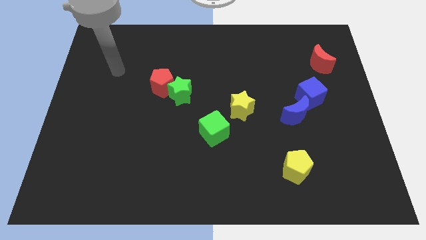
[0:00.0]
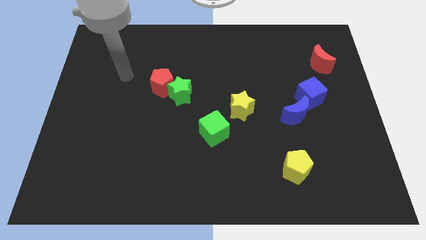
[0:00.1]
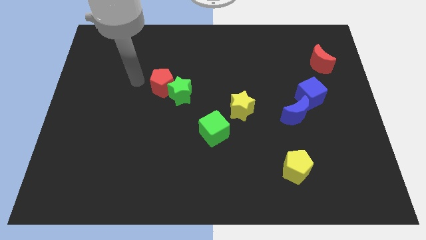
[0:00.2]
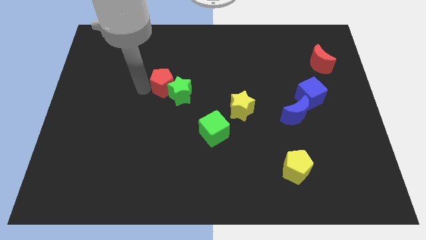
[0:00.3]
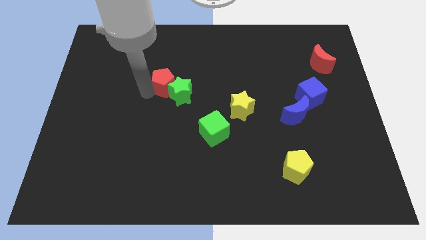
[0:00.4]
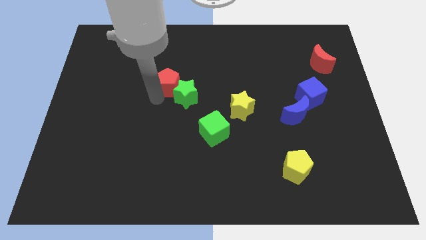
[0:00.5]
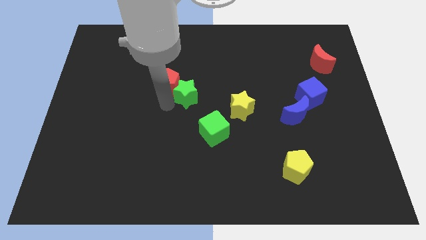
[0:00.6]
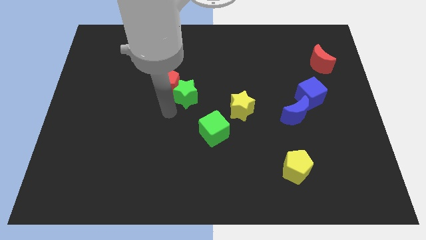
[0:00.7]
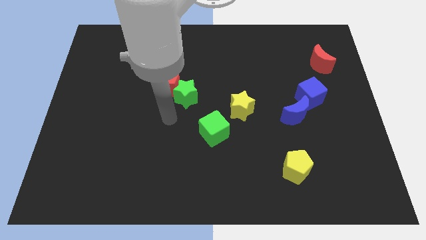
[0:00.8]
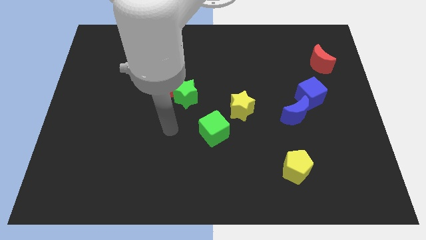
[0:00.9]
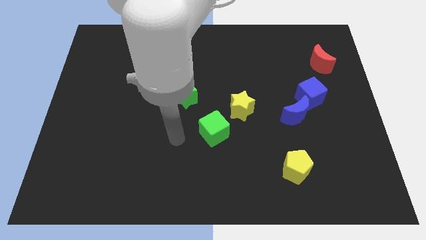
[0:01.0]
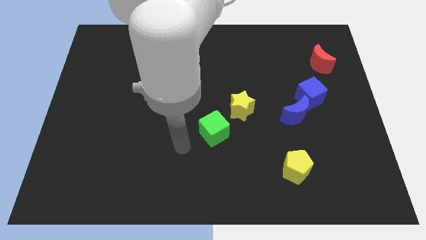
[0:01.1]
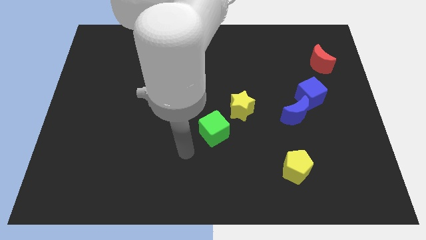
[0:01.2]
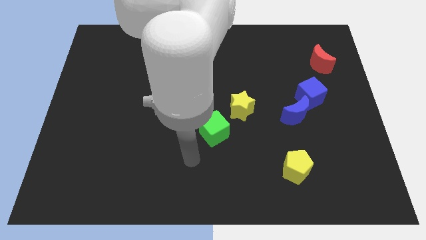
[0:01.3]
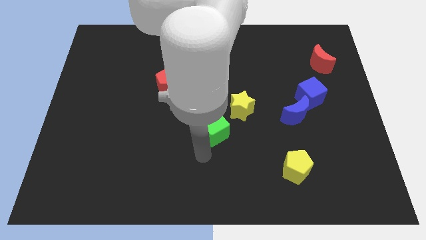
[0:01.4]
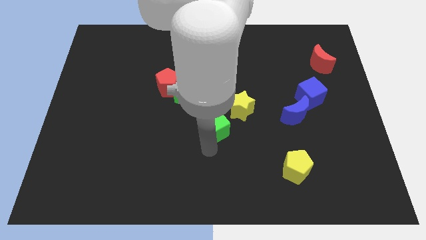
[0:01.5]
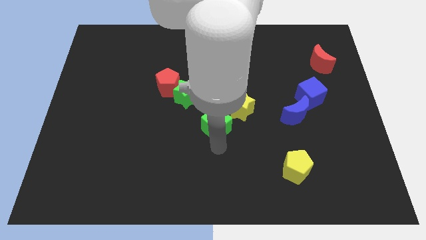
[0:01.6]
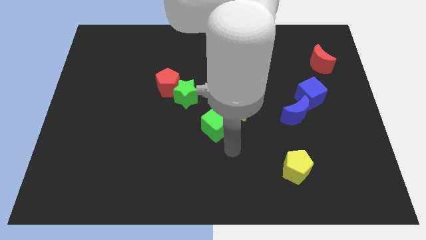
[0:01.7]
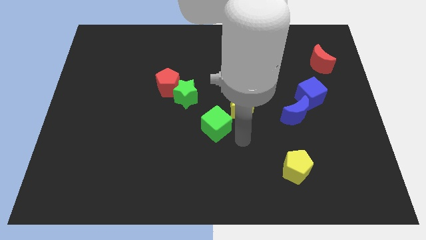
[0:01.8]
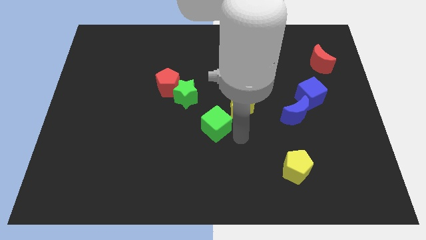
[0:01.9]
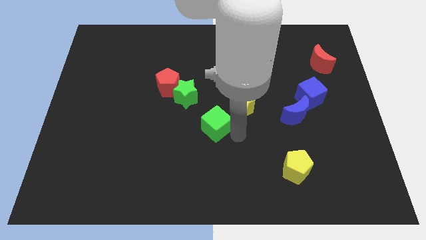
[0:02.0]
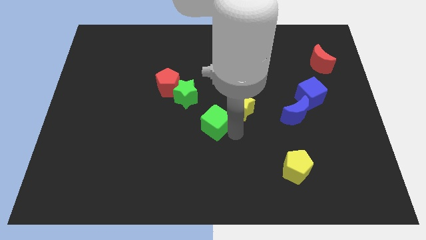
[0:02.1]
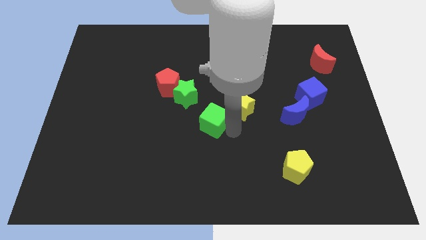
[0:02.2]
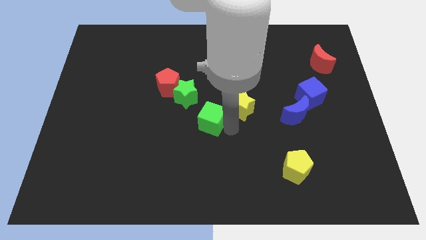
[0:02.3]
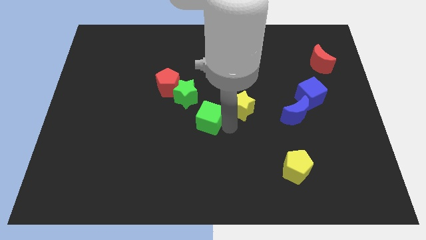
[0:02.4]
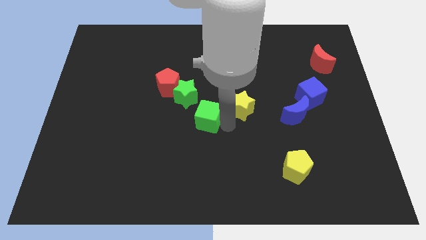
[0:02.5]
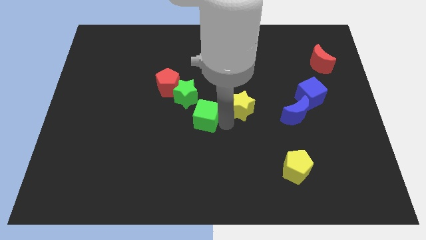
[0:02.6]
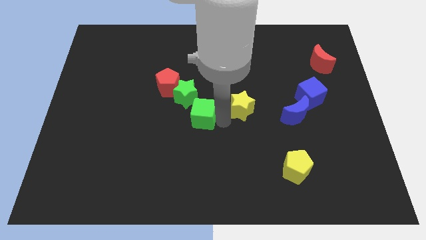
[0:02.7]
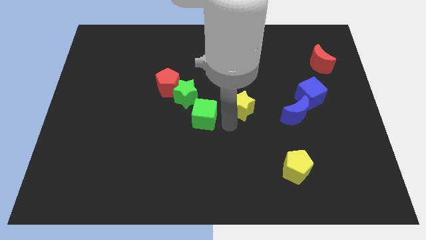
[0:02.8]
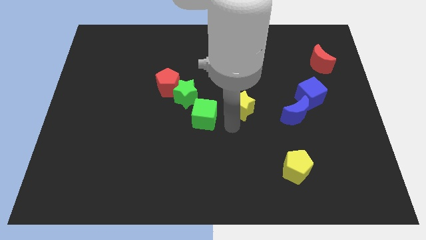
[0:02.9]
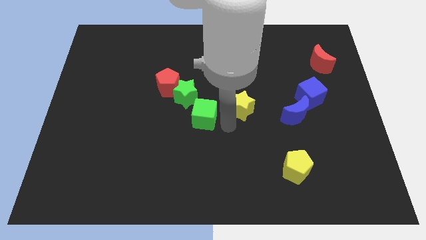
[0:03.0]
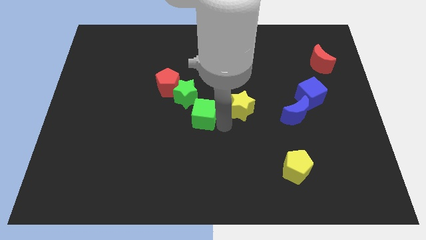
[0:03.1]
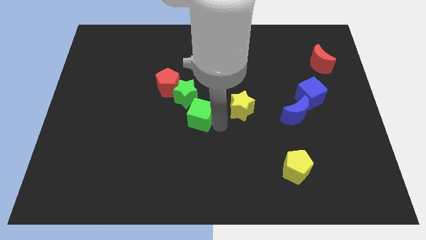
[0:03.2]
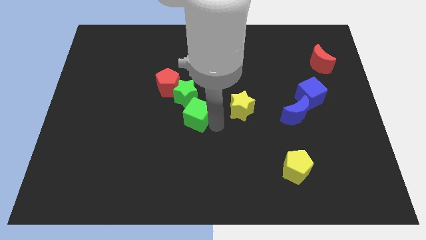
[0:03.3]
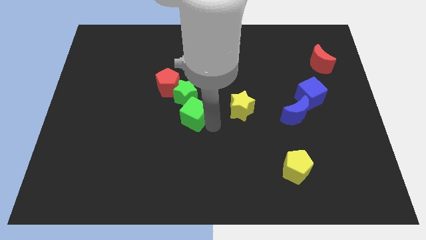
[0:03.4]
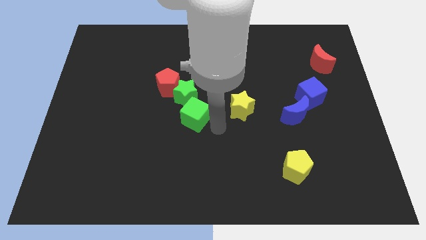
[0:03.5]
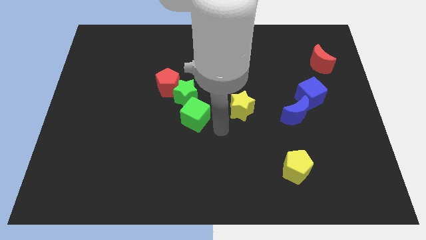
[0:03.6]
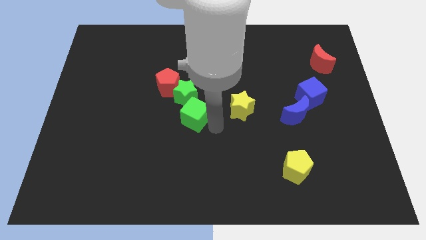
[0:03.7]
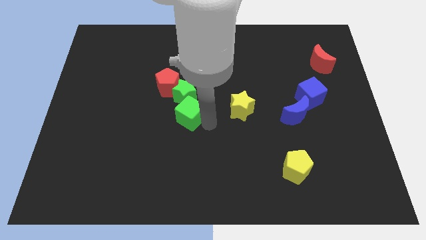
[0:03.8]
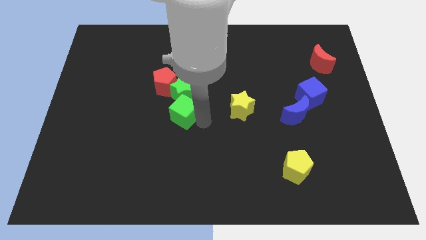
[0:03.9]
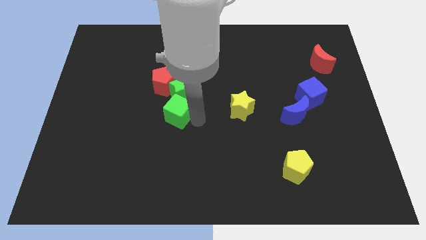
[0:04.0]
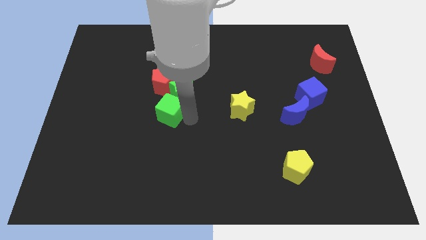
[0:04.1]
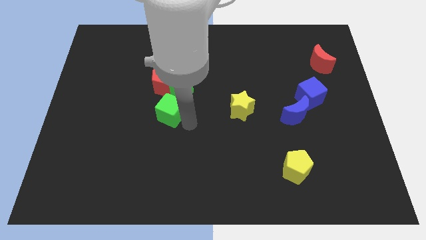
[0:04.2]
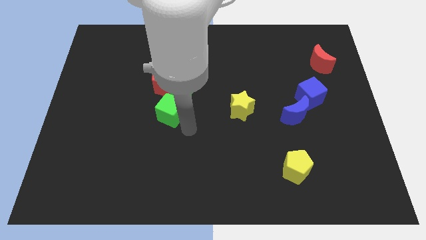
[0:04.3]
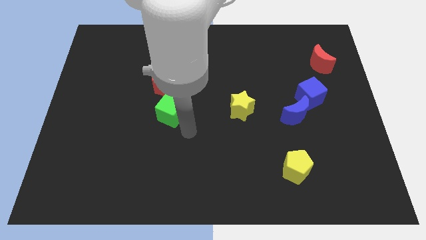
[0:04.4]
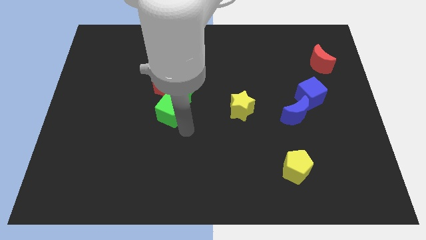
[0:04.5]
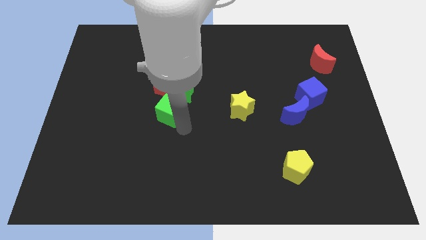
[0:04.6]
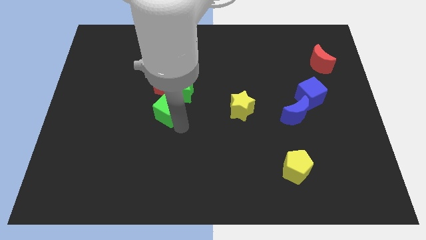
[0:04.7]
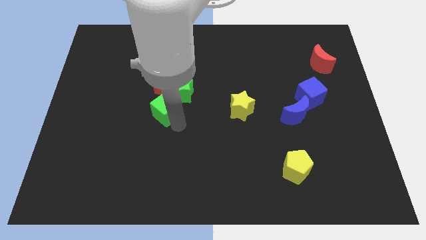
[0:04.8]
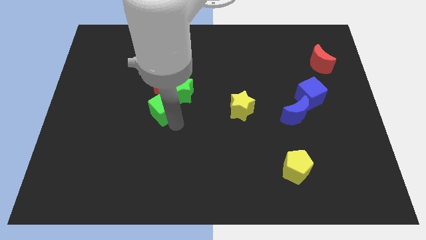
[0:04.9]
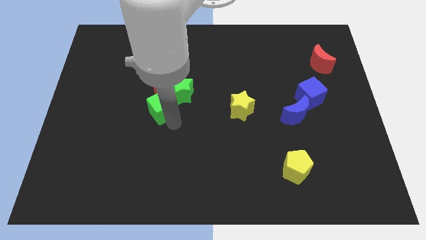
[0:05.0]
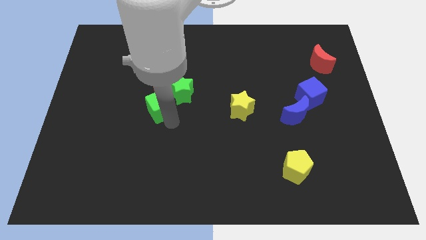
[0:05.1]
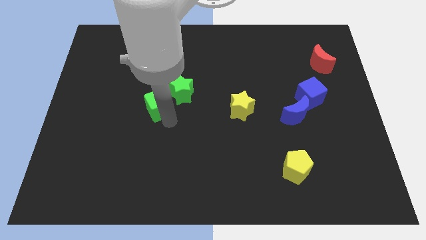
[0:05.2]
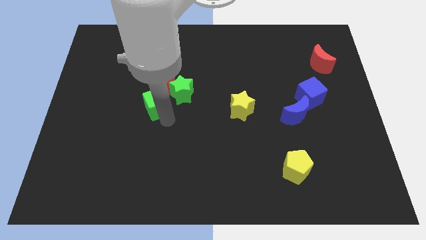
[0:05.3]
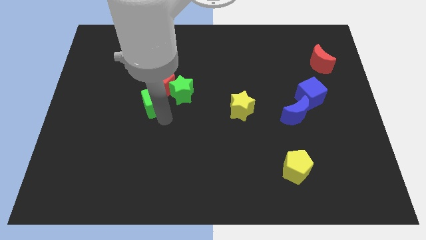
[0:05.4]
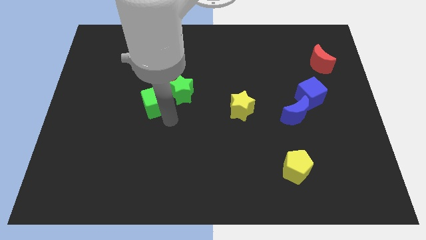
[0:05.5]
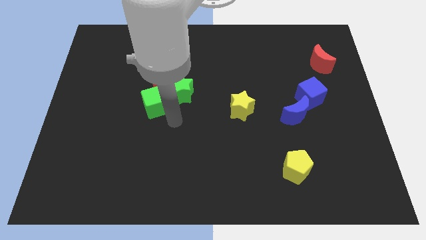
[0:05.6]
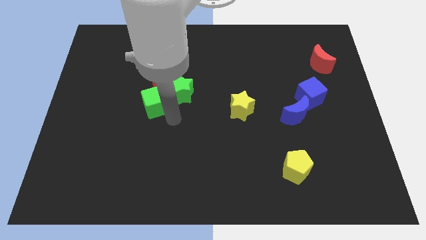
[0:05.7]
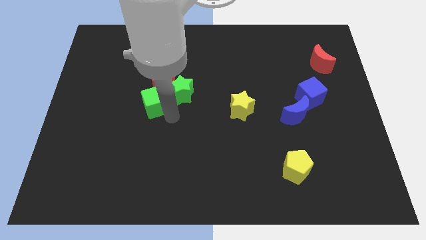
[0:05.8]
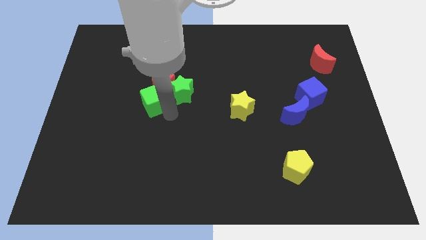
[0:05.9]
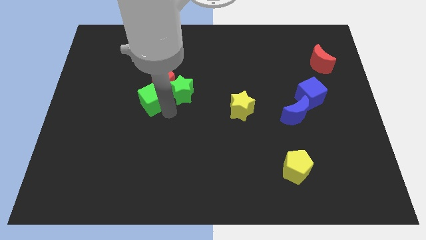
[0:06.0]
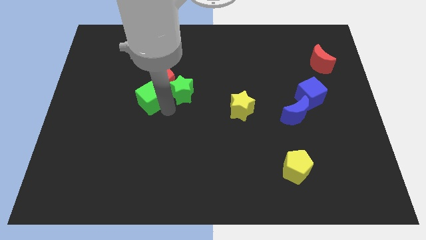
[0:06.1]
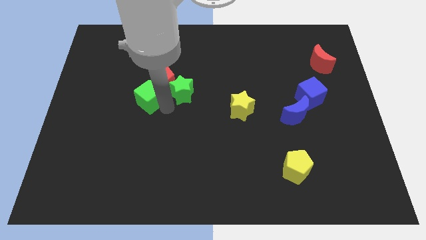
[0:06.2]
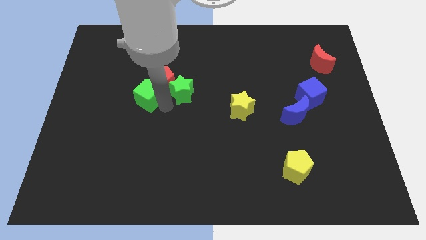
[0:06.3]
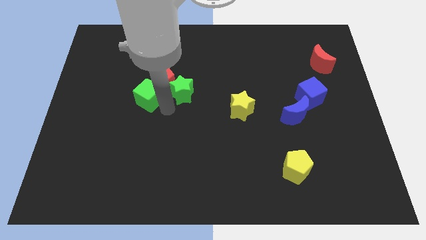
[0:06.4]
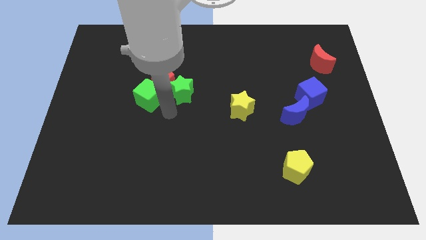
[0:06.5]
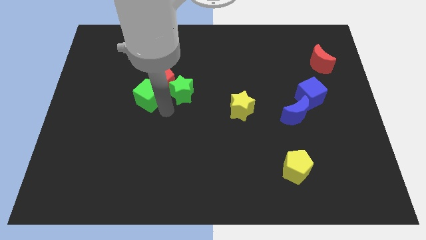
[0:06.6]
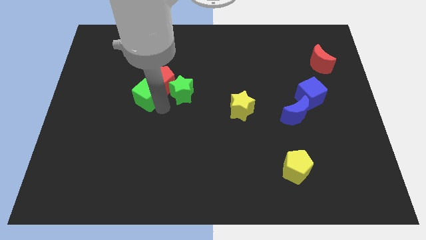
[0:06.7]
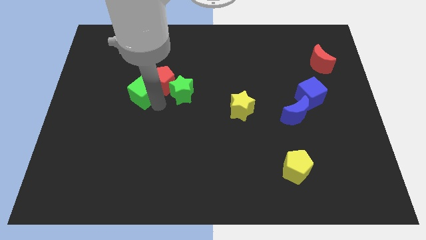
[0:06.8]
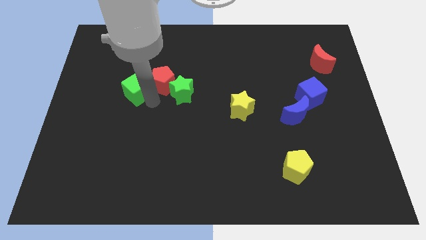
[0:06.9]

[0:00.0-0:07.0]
push the green cube upwards and left diagonally

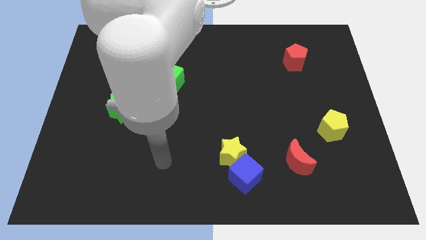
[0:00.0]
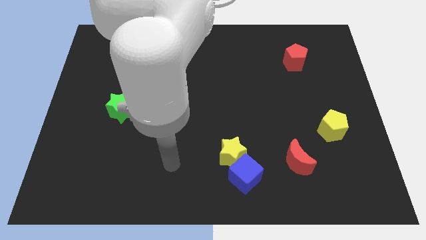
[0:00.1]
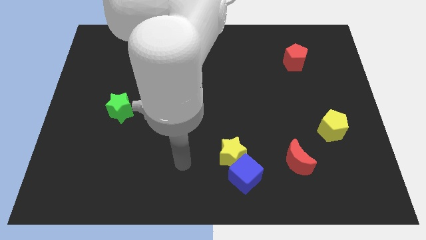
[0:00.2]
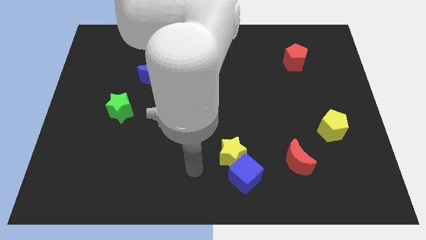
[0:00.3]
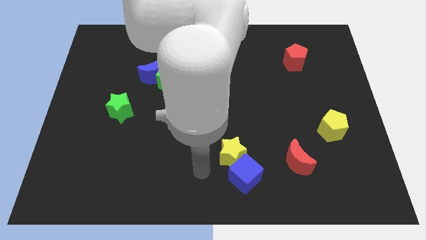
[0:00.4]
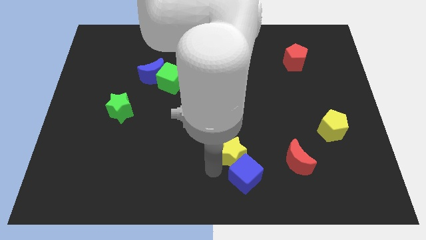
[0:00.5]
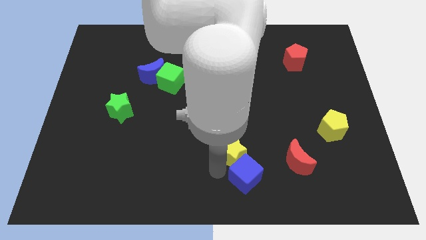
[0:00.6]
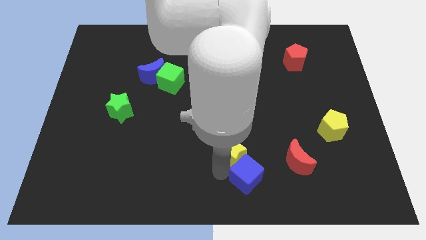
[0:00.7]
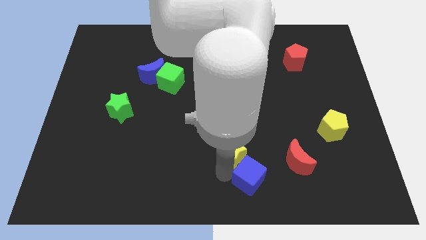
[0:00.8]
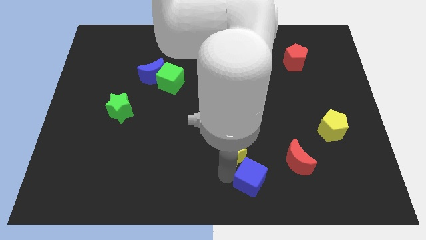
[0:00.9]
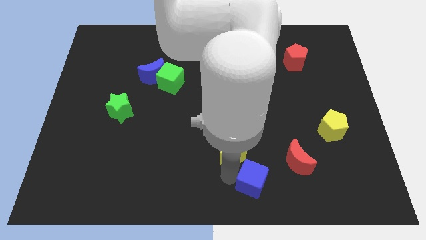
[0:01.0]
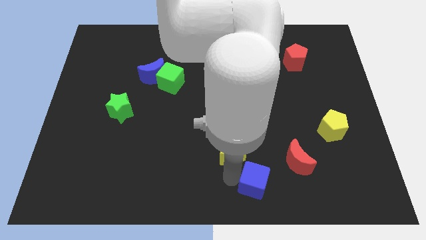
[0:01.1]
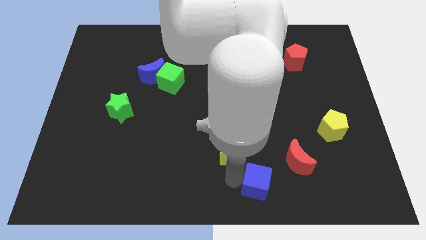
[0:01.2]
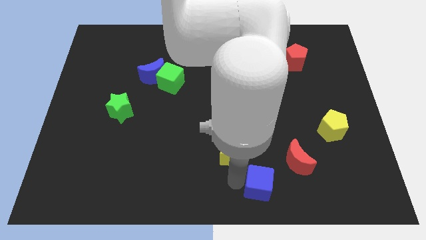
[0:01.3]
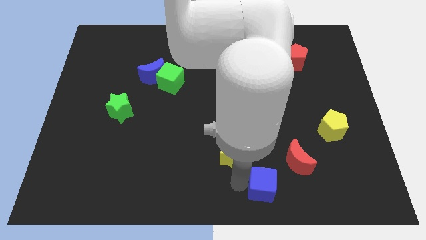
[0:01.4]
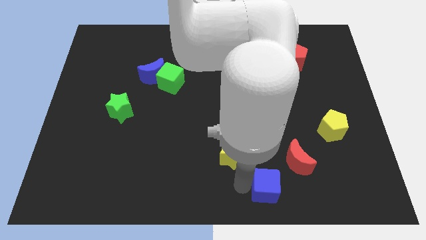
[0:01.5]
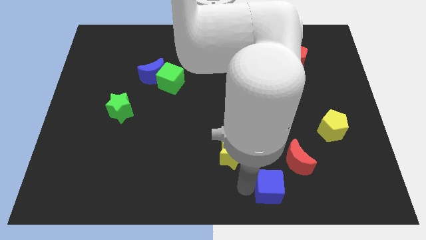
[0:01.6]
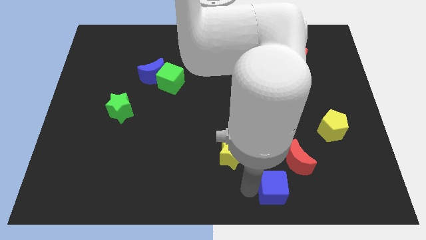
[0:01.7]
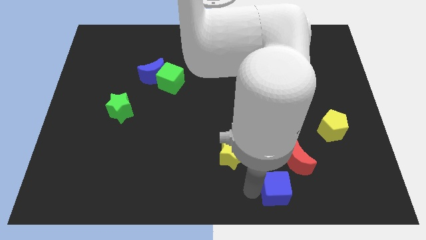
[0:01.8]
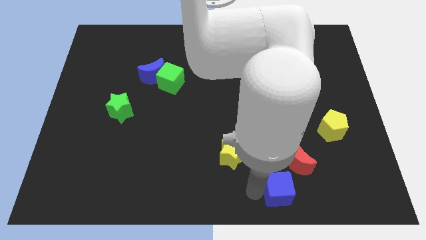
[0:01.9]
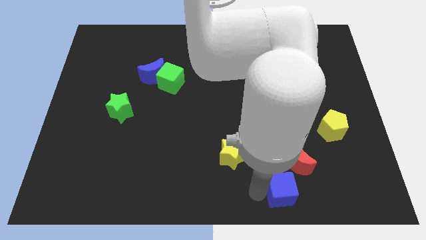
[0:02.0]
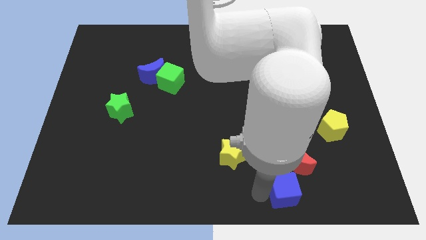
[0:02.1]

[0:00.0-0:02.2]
push the blue cube right a bit
